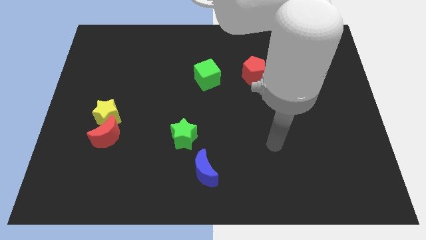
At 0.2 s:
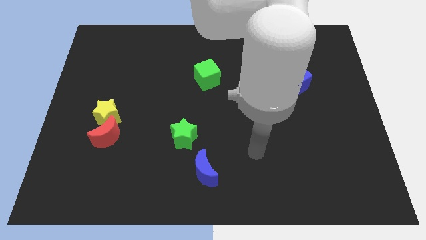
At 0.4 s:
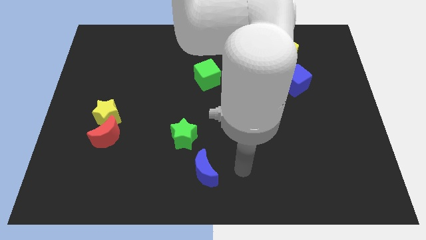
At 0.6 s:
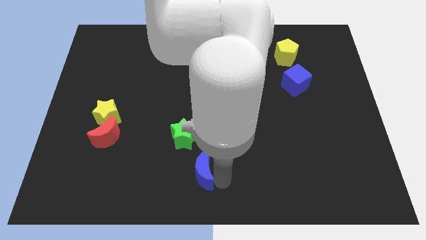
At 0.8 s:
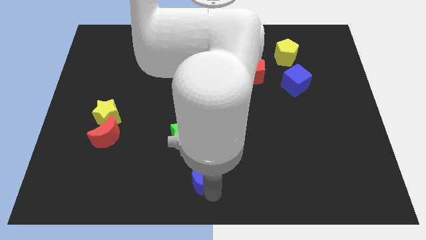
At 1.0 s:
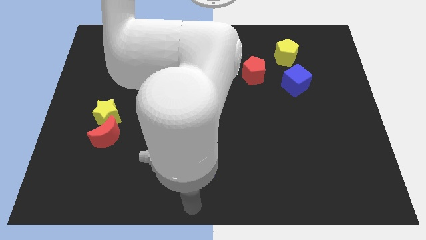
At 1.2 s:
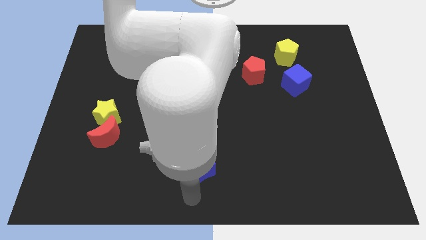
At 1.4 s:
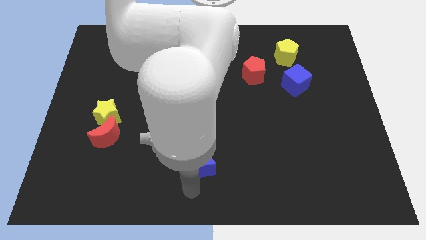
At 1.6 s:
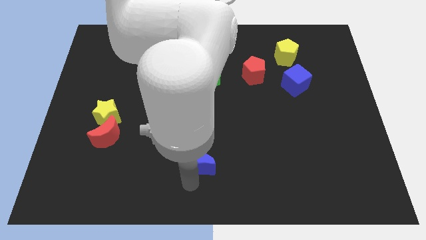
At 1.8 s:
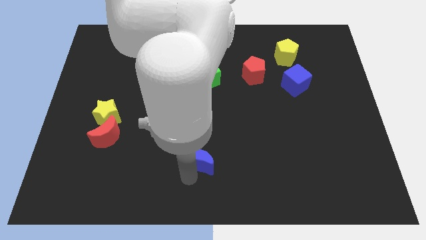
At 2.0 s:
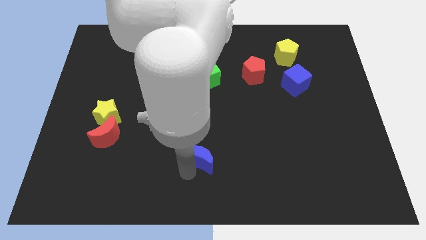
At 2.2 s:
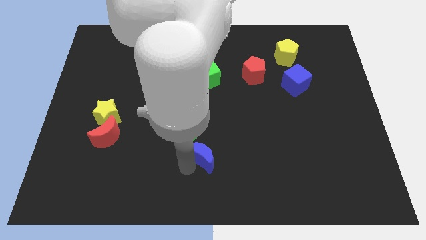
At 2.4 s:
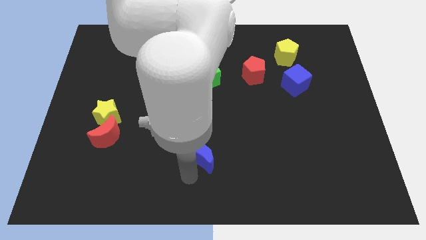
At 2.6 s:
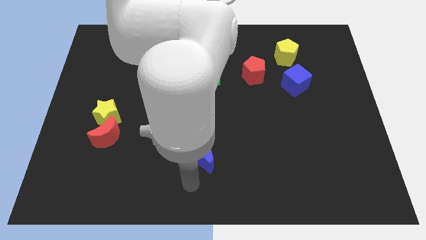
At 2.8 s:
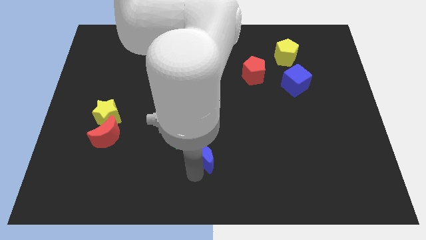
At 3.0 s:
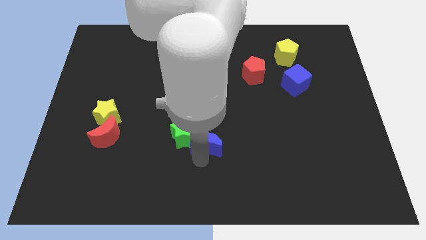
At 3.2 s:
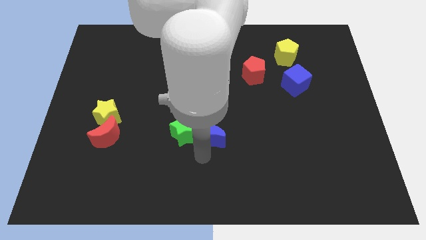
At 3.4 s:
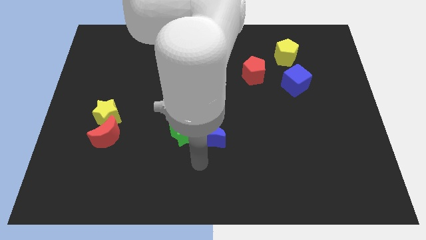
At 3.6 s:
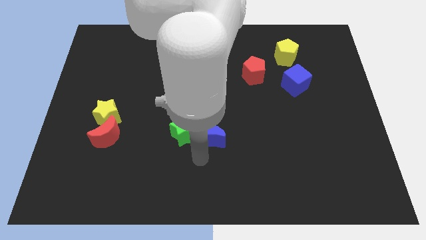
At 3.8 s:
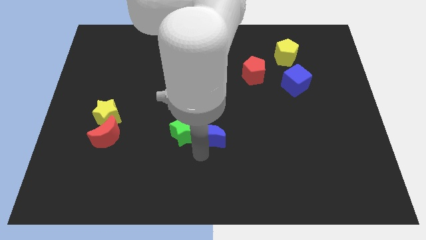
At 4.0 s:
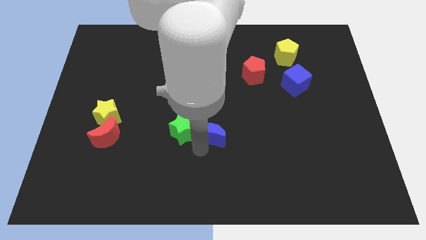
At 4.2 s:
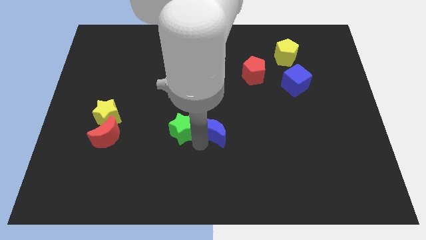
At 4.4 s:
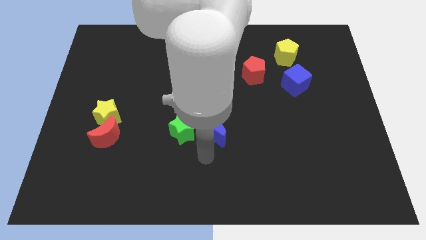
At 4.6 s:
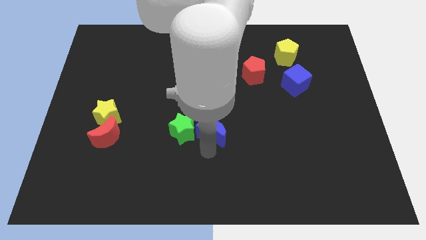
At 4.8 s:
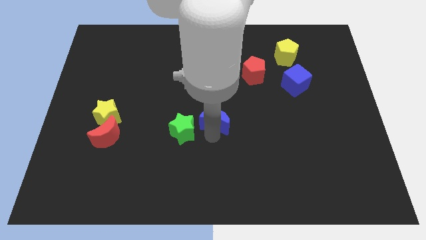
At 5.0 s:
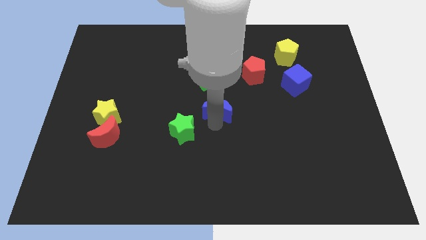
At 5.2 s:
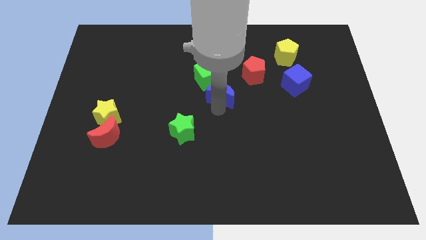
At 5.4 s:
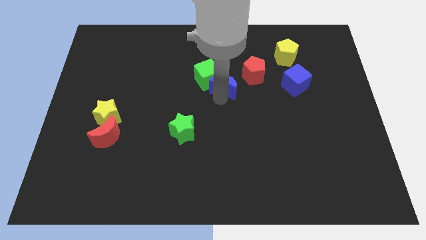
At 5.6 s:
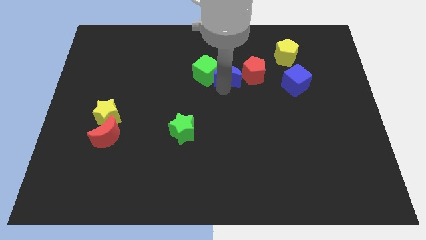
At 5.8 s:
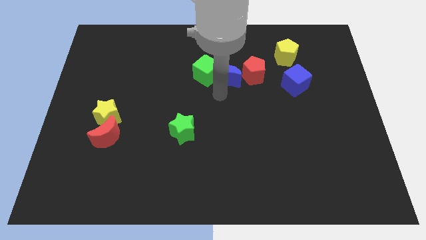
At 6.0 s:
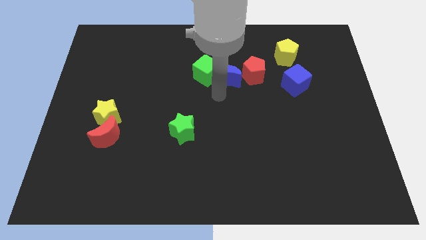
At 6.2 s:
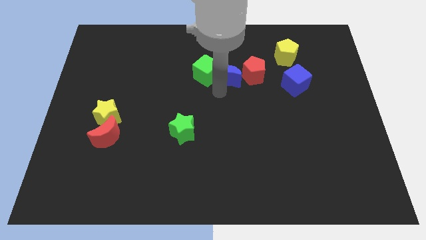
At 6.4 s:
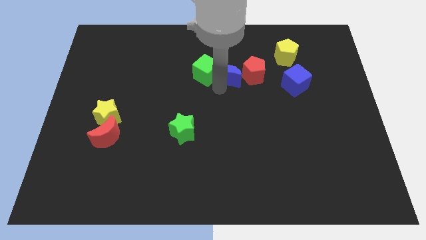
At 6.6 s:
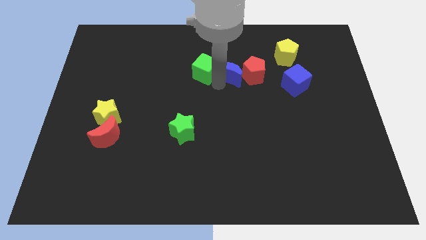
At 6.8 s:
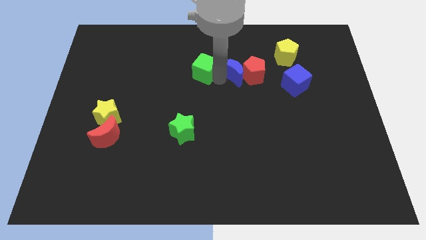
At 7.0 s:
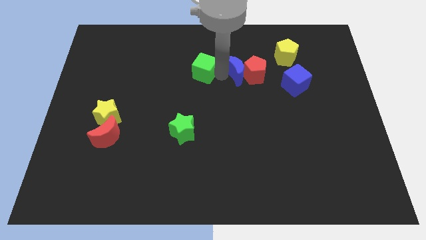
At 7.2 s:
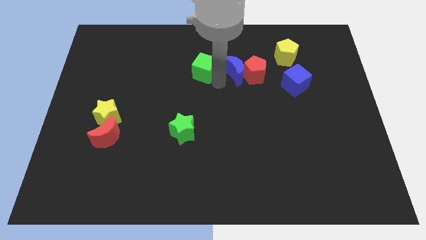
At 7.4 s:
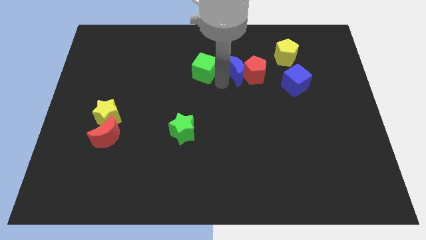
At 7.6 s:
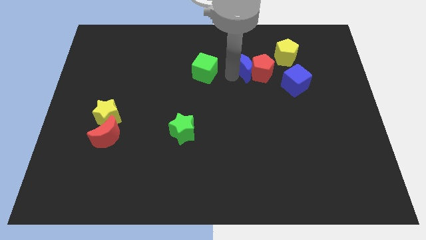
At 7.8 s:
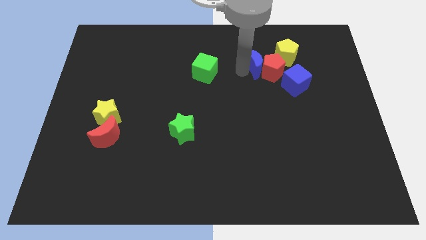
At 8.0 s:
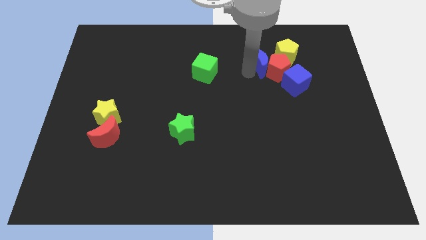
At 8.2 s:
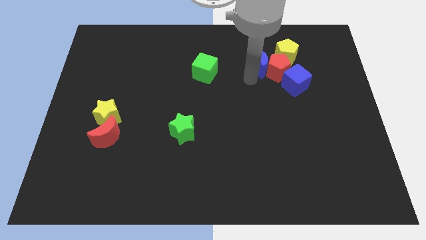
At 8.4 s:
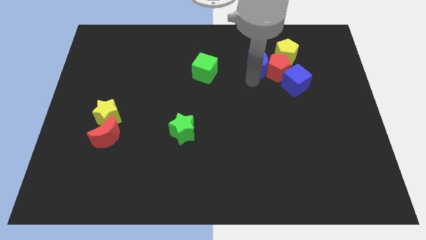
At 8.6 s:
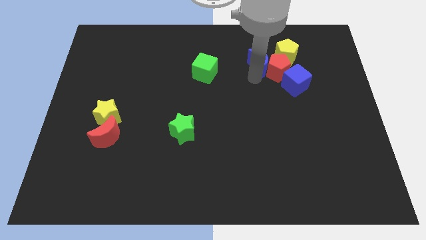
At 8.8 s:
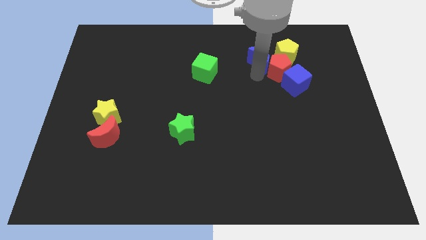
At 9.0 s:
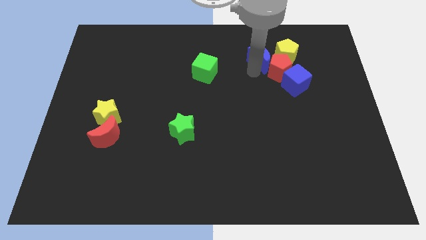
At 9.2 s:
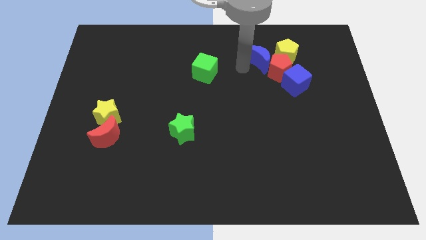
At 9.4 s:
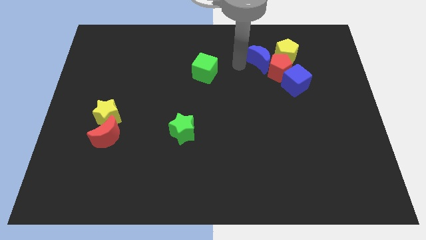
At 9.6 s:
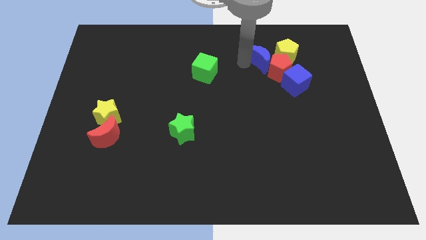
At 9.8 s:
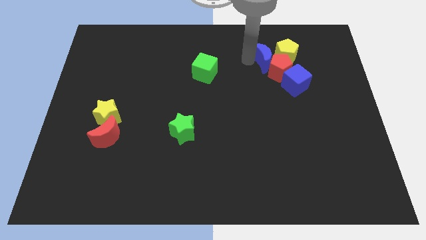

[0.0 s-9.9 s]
move the blue moon to the yellow pentagon

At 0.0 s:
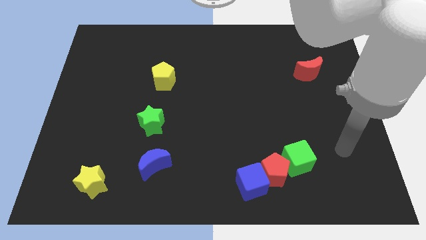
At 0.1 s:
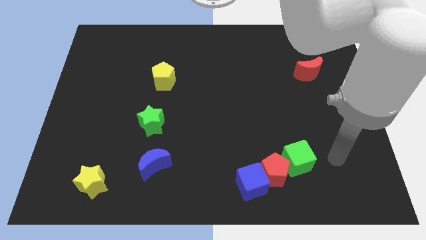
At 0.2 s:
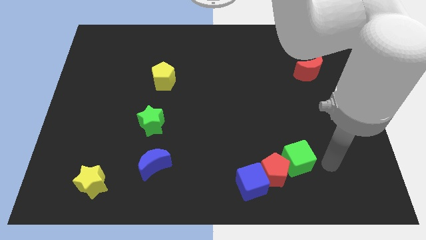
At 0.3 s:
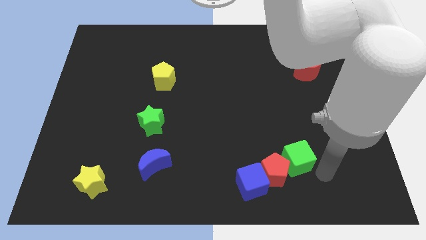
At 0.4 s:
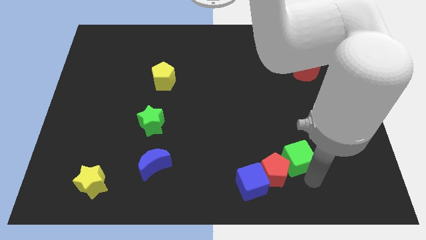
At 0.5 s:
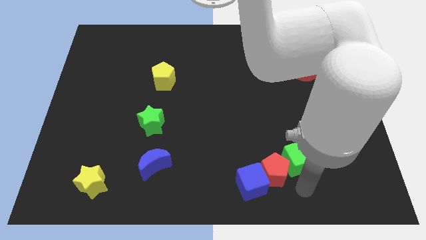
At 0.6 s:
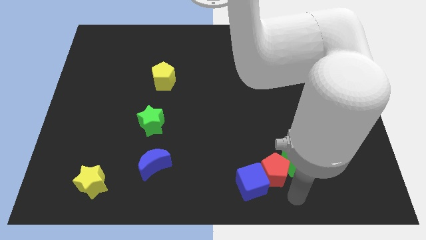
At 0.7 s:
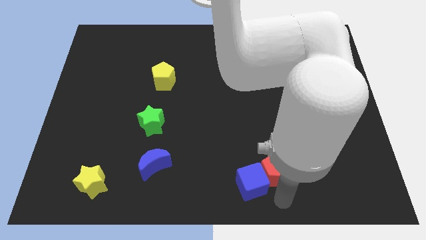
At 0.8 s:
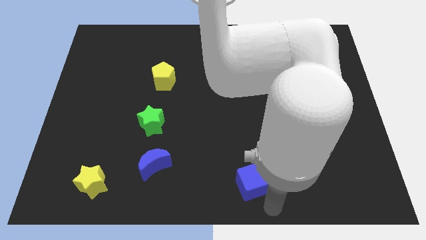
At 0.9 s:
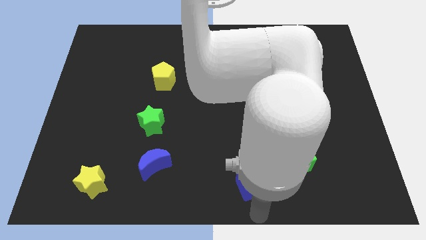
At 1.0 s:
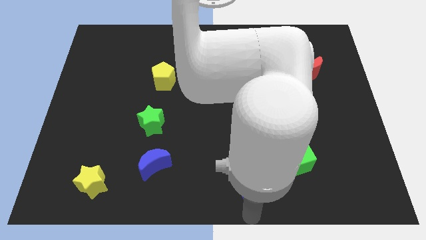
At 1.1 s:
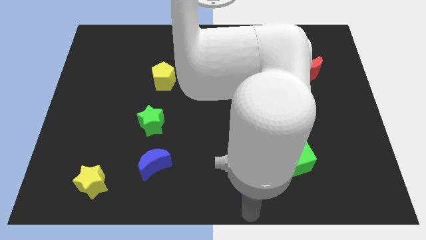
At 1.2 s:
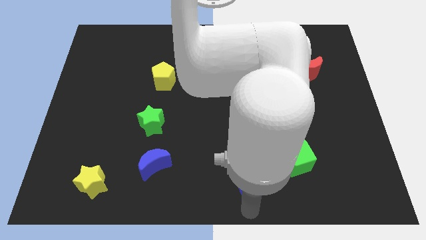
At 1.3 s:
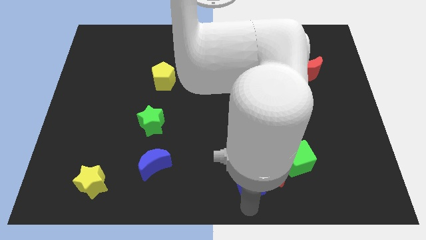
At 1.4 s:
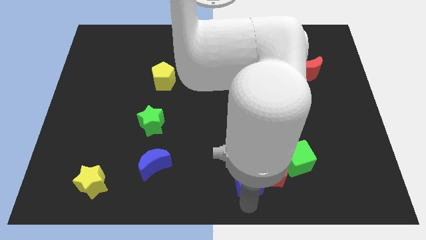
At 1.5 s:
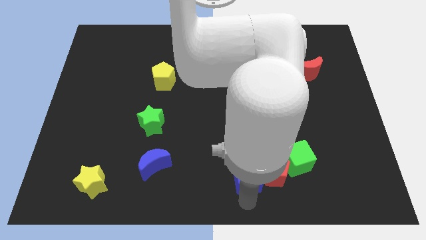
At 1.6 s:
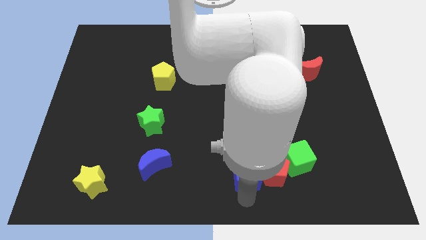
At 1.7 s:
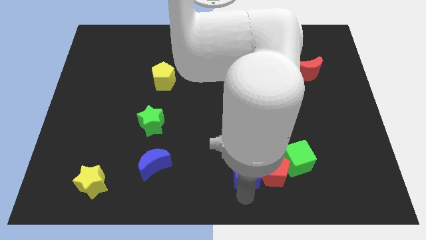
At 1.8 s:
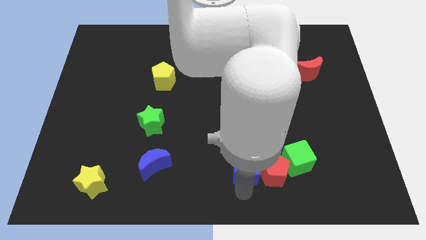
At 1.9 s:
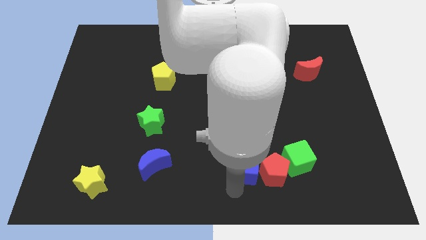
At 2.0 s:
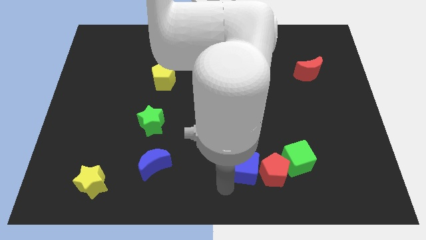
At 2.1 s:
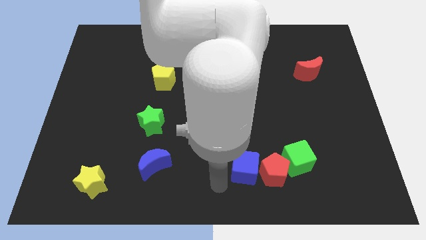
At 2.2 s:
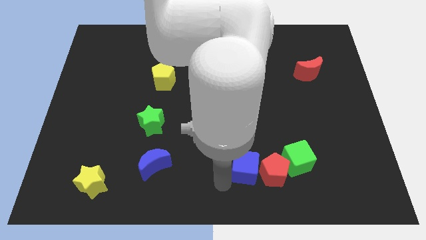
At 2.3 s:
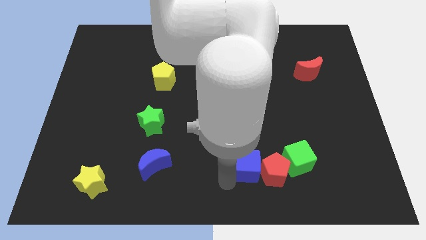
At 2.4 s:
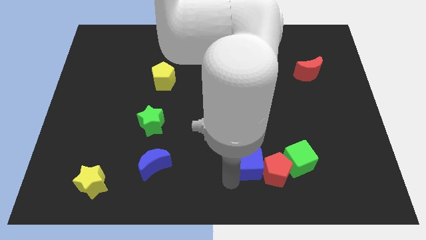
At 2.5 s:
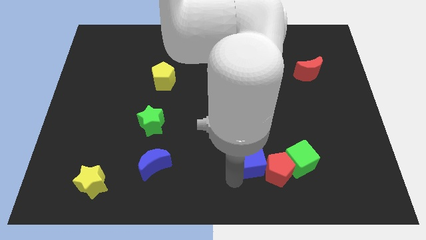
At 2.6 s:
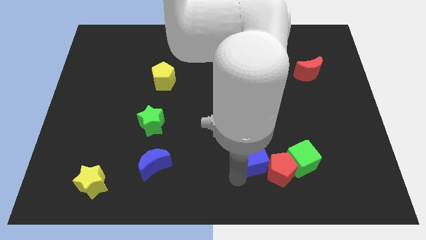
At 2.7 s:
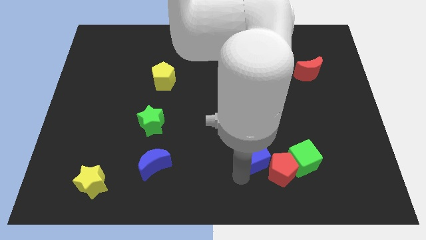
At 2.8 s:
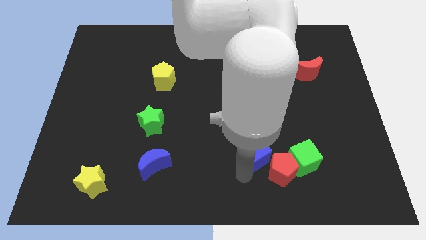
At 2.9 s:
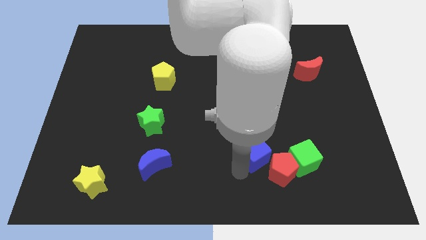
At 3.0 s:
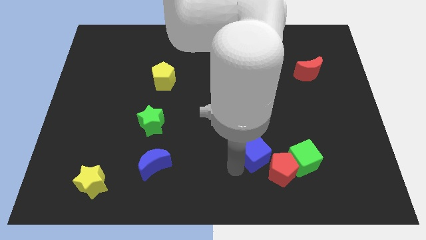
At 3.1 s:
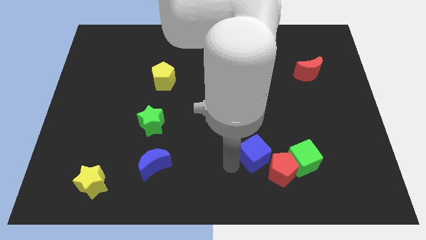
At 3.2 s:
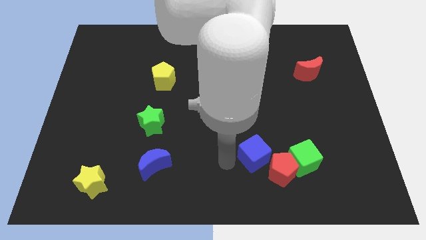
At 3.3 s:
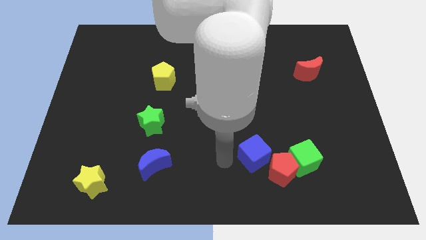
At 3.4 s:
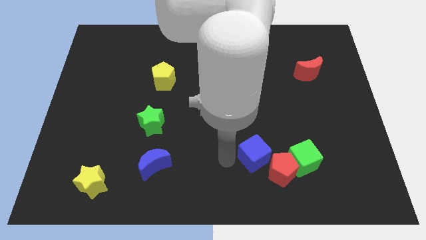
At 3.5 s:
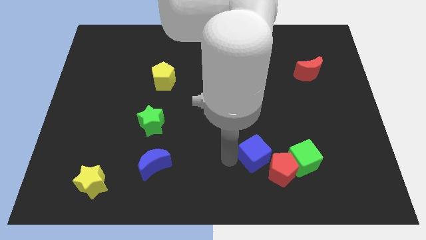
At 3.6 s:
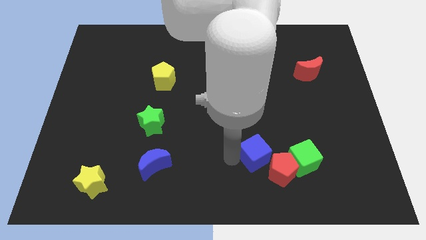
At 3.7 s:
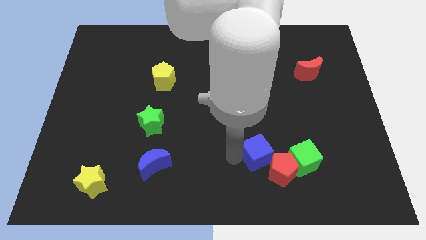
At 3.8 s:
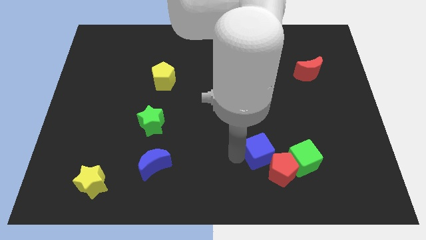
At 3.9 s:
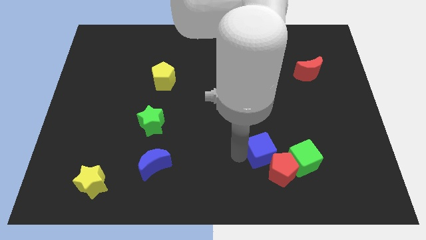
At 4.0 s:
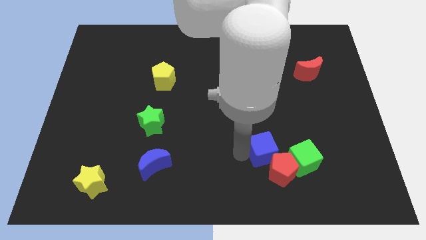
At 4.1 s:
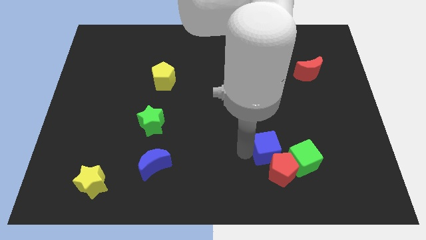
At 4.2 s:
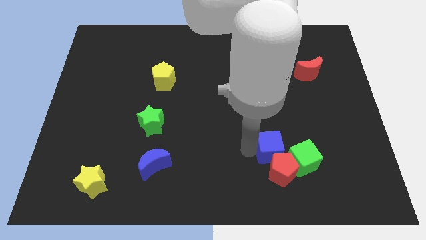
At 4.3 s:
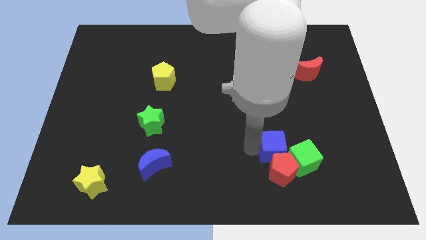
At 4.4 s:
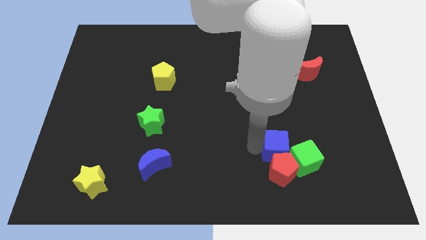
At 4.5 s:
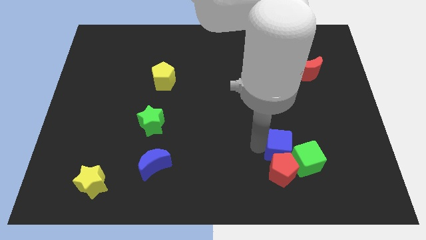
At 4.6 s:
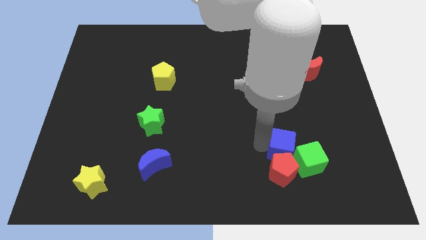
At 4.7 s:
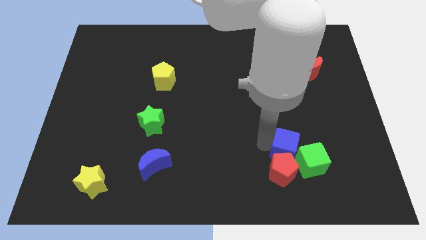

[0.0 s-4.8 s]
move the blue cube to the green cube
